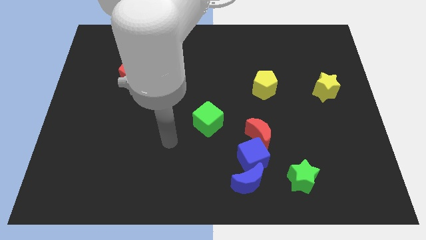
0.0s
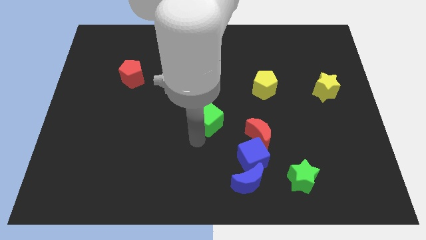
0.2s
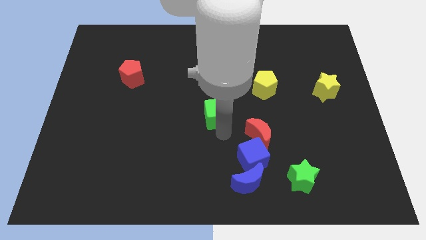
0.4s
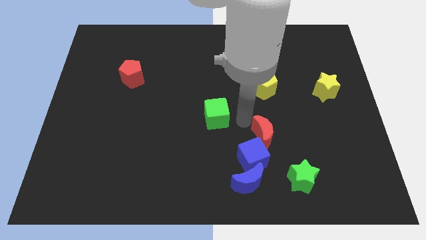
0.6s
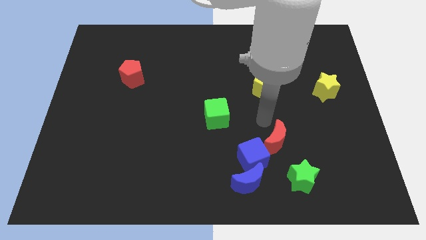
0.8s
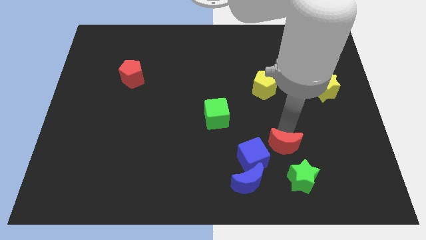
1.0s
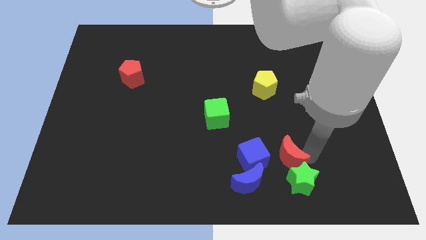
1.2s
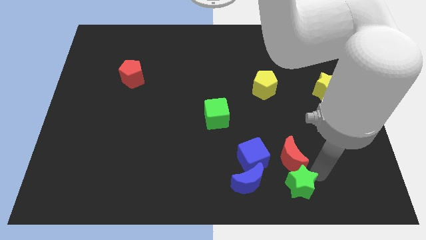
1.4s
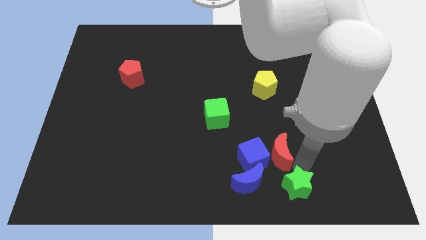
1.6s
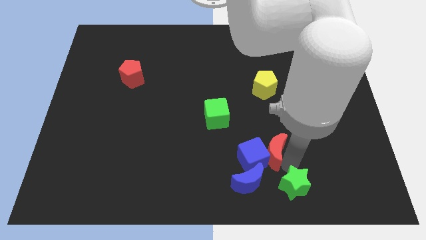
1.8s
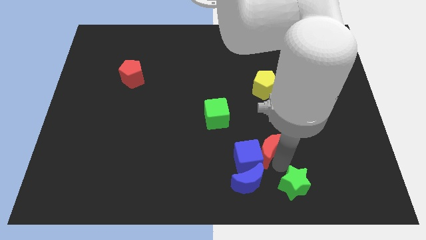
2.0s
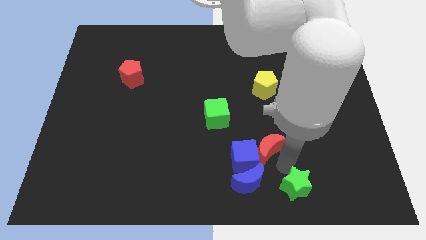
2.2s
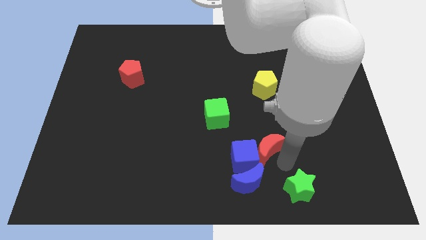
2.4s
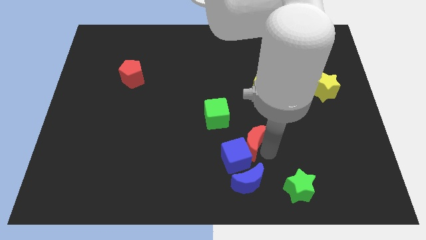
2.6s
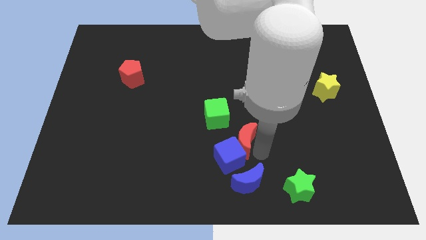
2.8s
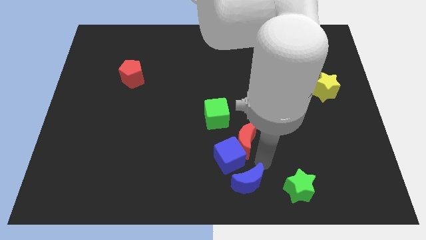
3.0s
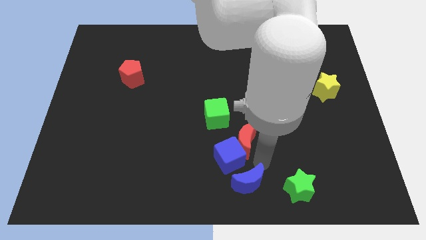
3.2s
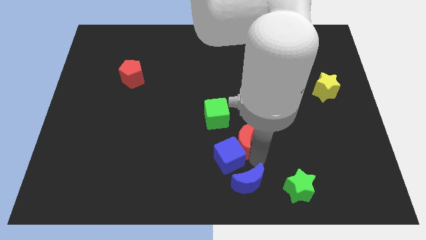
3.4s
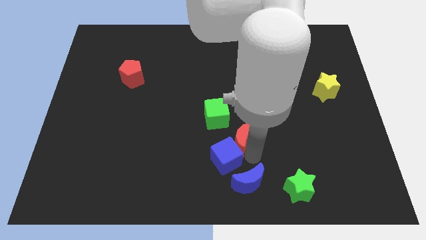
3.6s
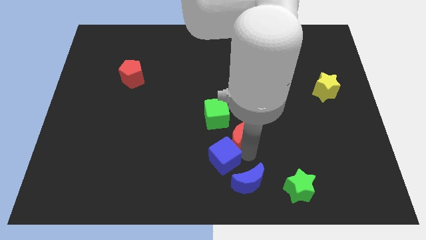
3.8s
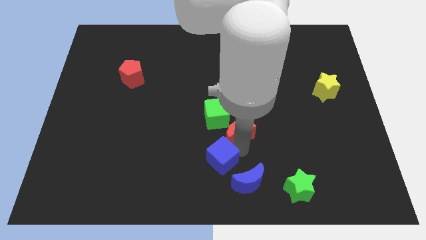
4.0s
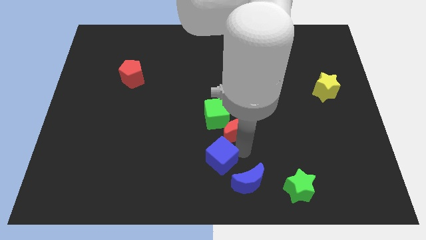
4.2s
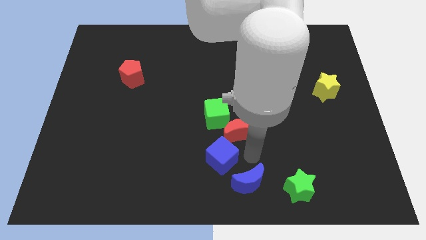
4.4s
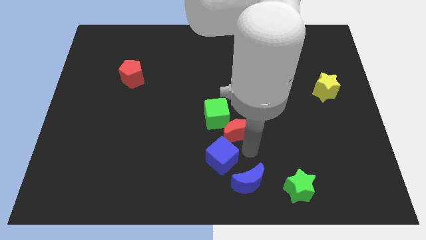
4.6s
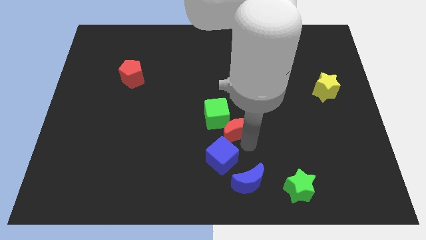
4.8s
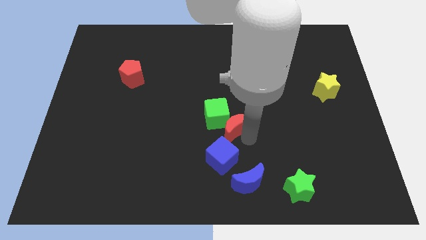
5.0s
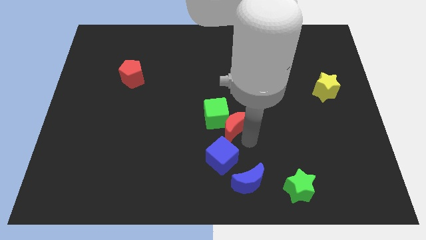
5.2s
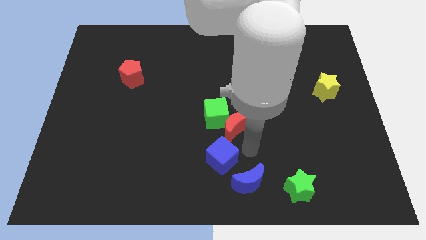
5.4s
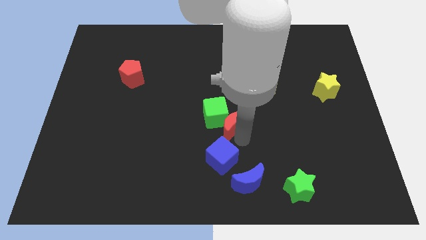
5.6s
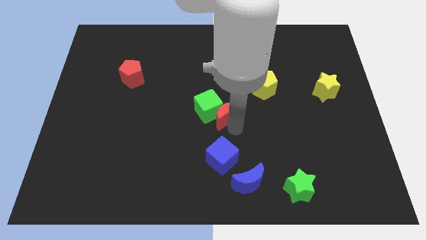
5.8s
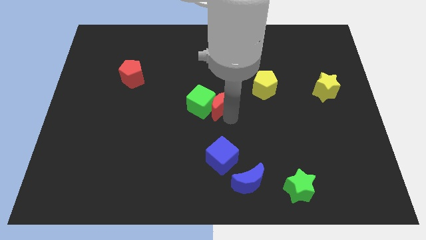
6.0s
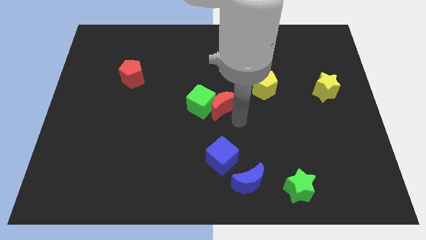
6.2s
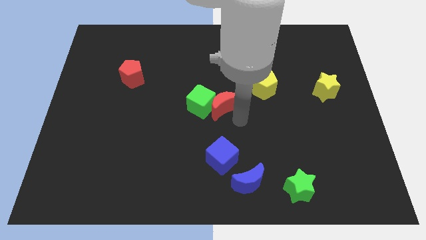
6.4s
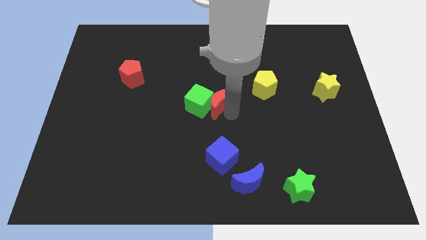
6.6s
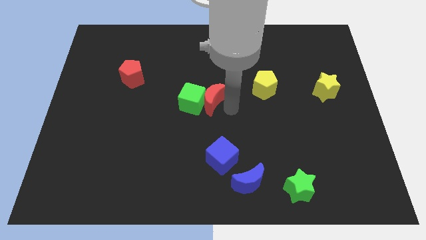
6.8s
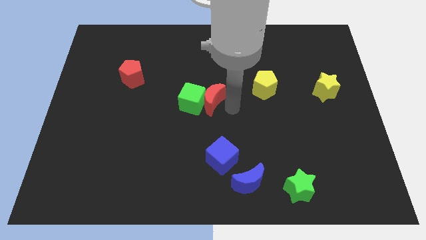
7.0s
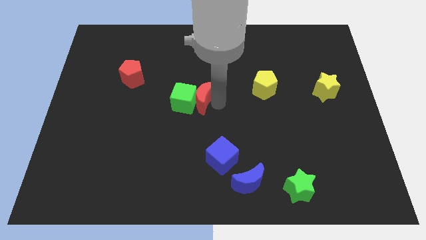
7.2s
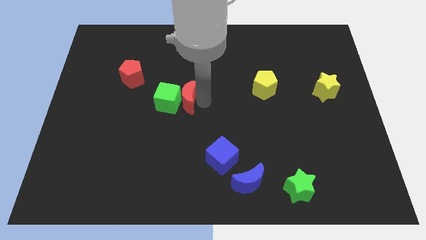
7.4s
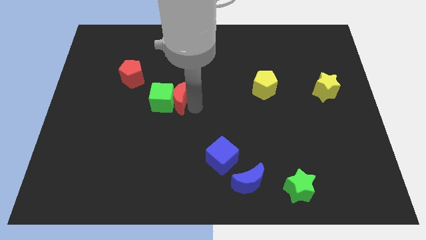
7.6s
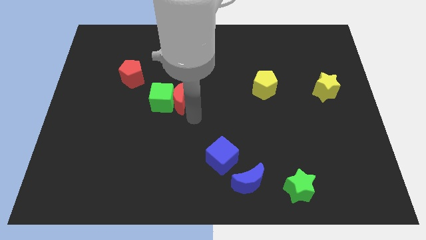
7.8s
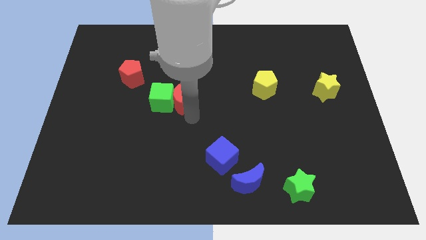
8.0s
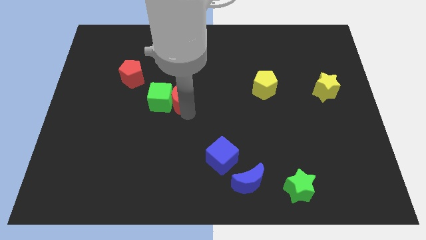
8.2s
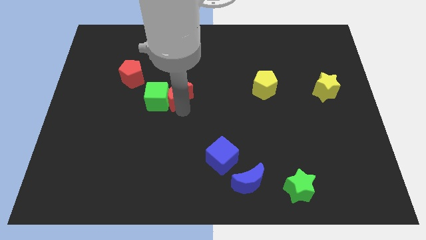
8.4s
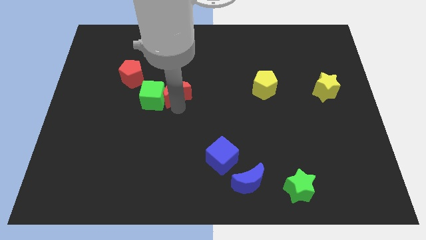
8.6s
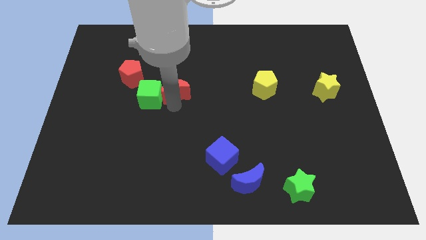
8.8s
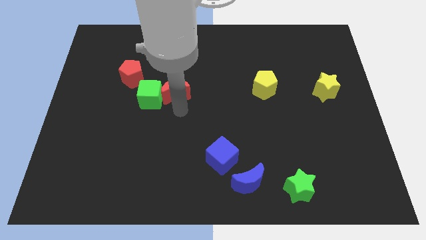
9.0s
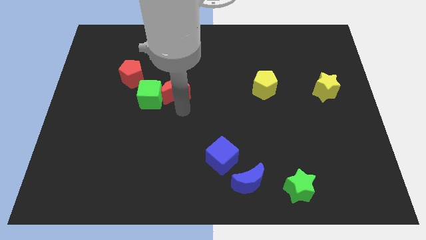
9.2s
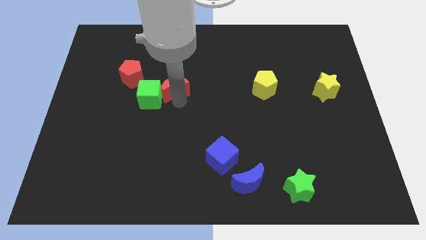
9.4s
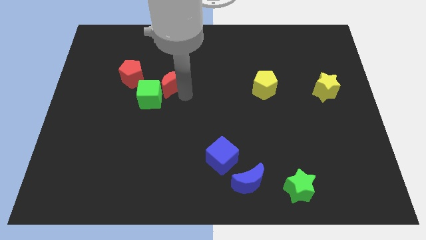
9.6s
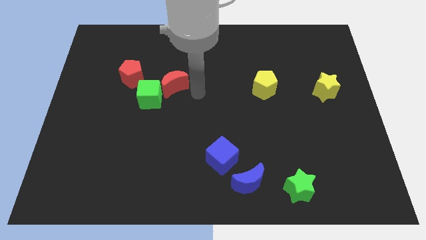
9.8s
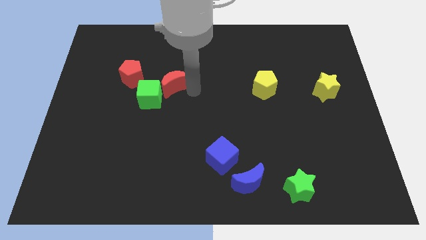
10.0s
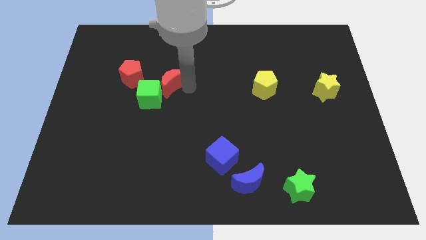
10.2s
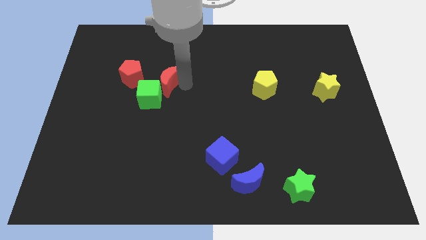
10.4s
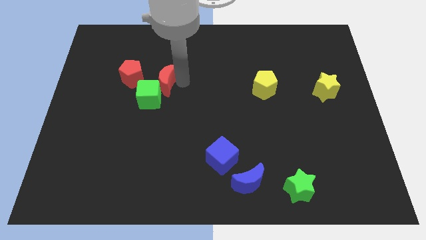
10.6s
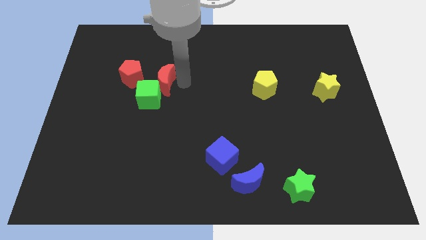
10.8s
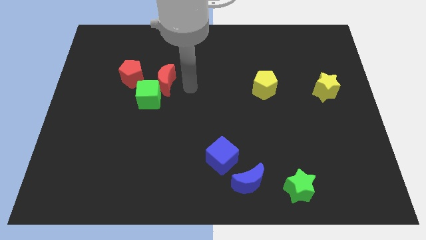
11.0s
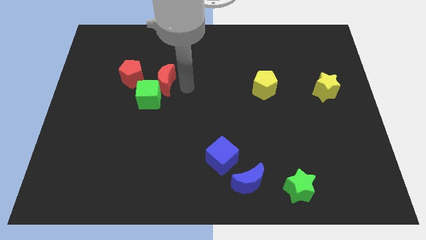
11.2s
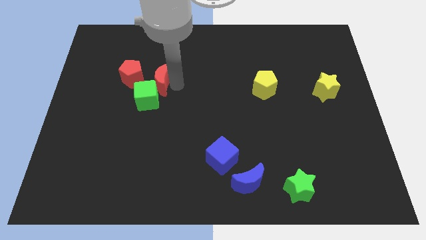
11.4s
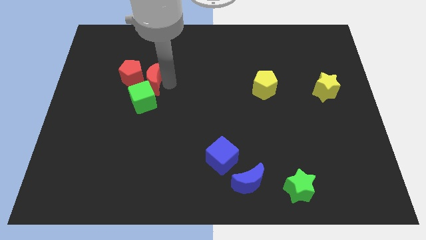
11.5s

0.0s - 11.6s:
push the red moon to the red pentagon

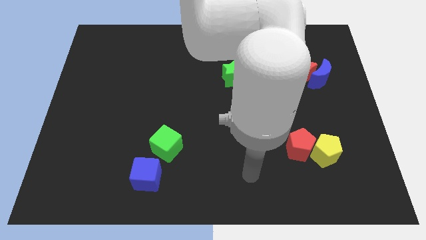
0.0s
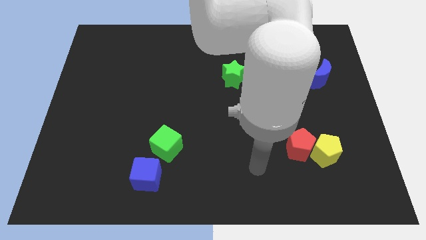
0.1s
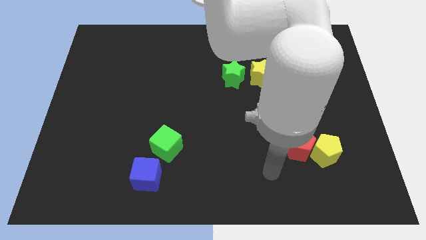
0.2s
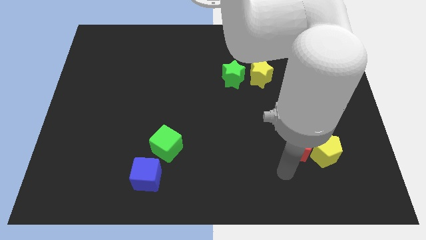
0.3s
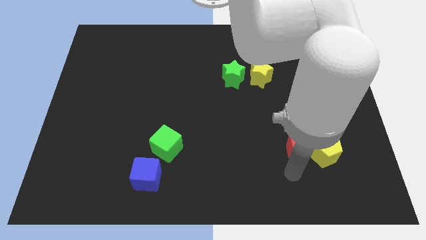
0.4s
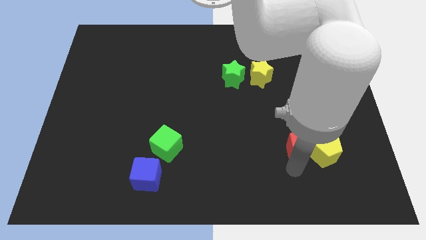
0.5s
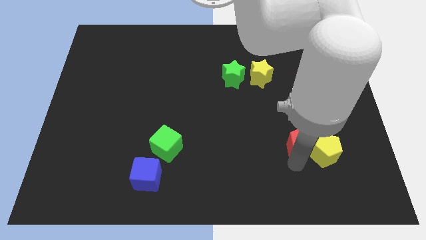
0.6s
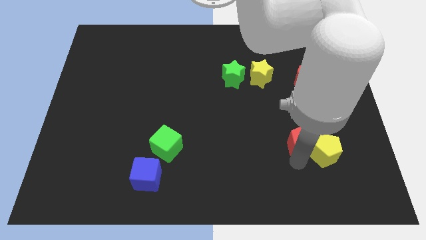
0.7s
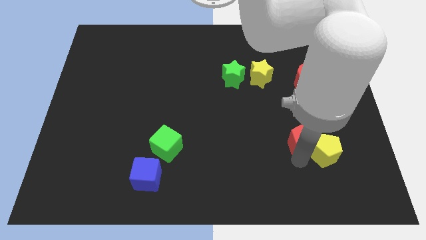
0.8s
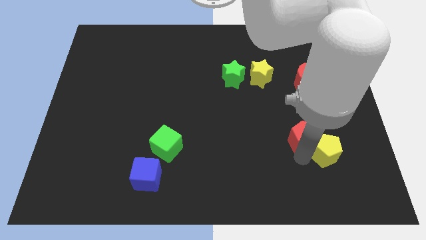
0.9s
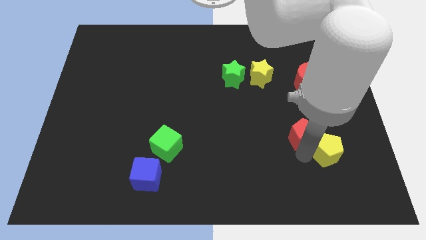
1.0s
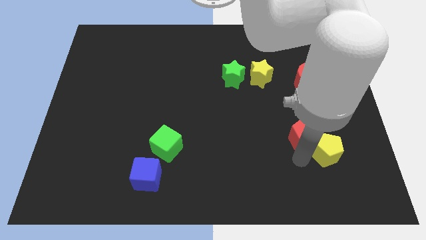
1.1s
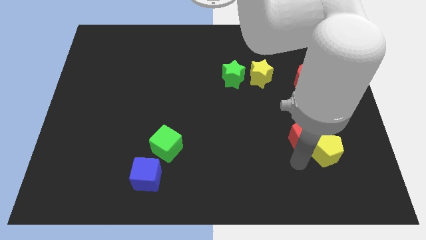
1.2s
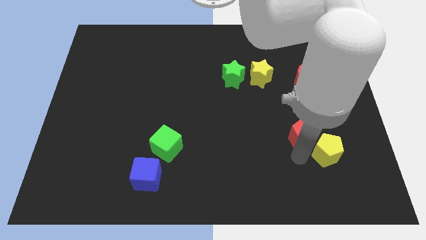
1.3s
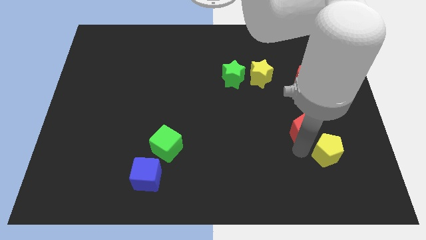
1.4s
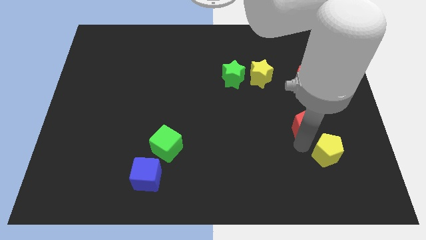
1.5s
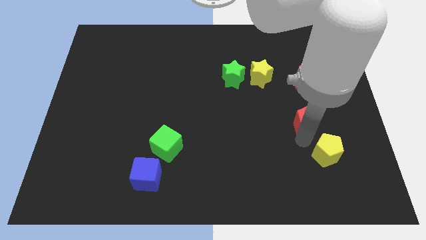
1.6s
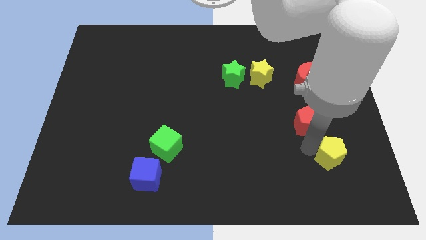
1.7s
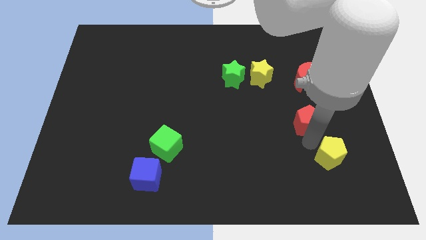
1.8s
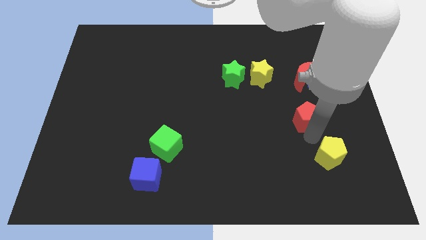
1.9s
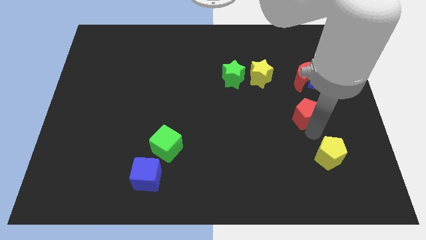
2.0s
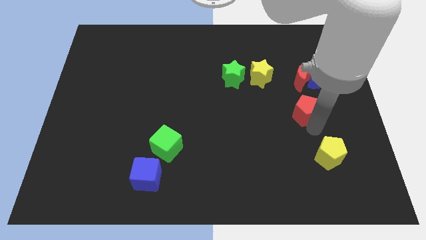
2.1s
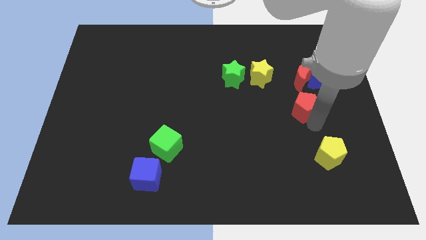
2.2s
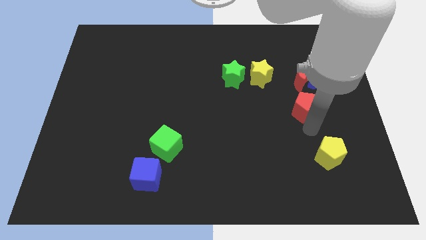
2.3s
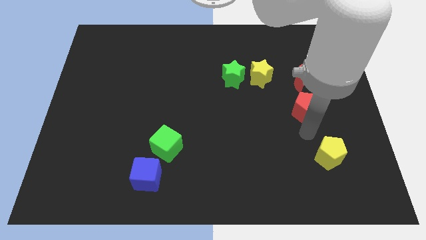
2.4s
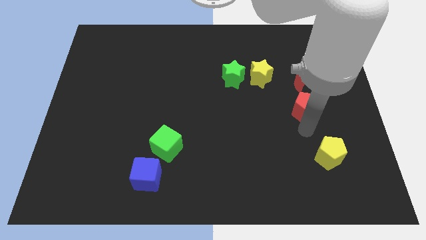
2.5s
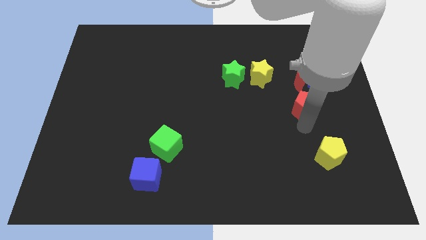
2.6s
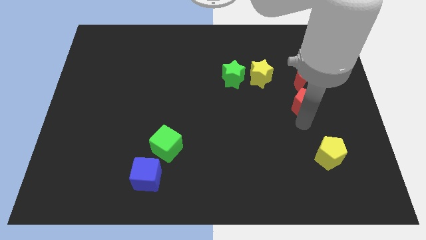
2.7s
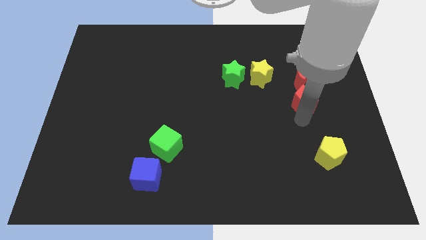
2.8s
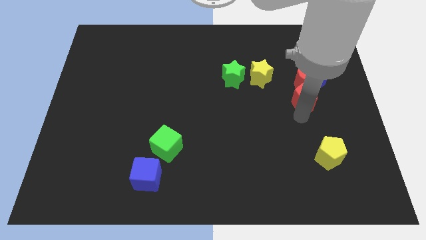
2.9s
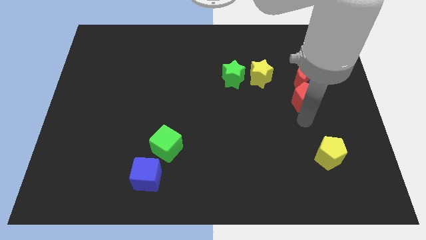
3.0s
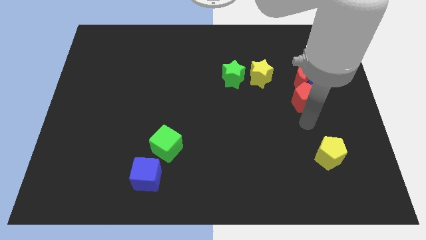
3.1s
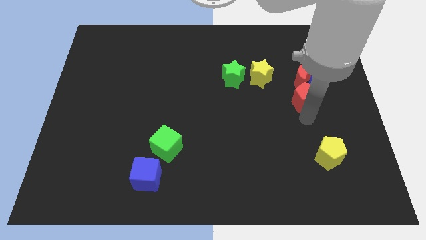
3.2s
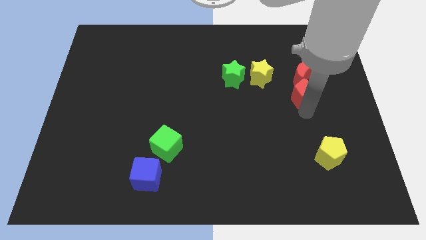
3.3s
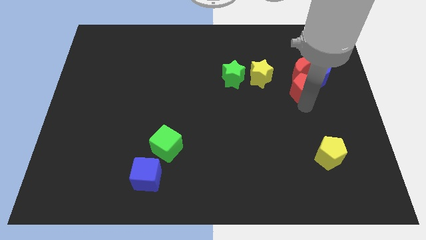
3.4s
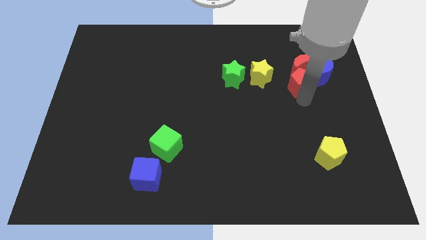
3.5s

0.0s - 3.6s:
slide the red pentagon towards the red moon
